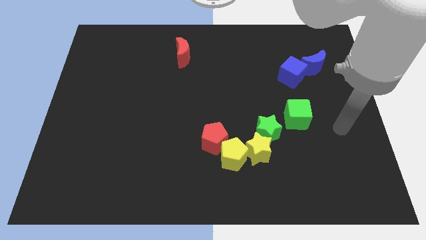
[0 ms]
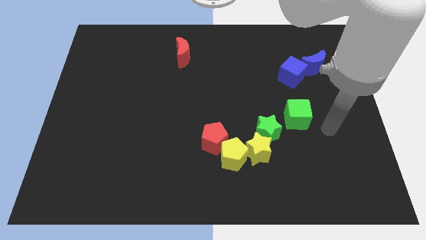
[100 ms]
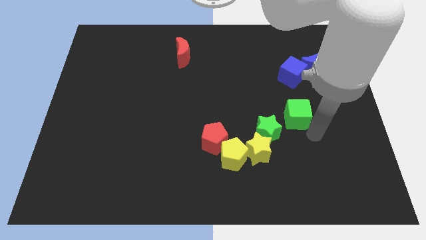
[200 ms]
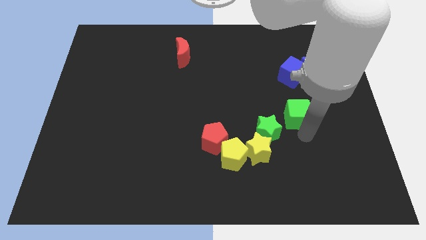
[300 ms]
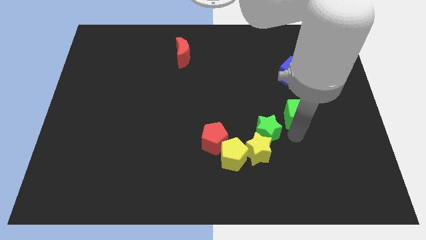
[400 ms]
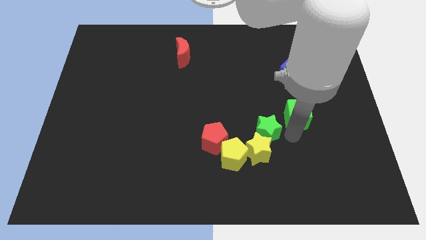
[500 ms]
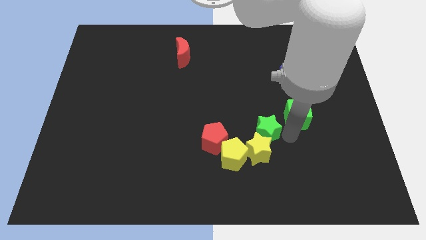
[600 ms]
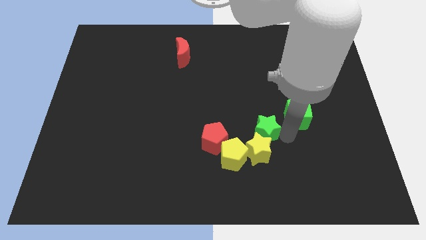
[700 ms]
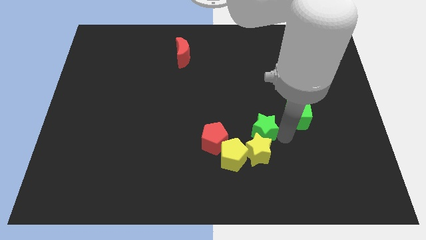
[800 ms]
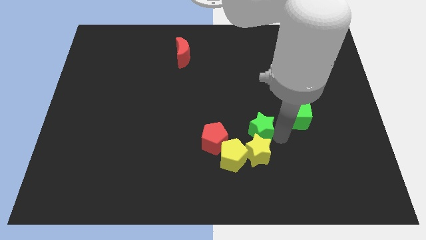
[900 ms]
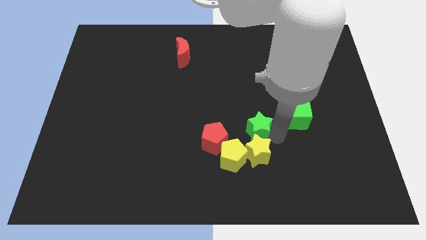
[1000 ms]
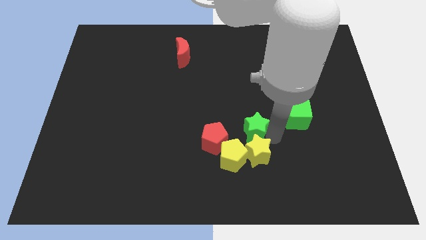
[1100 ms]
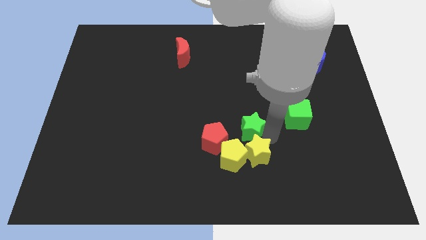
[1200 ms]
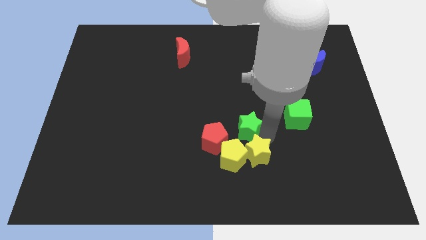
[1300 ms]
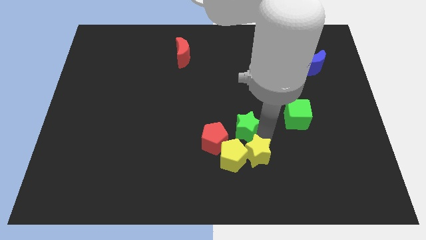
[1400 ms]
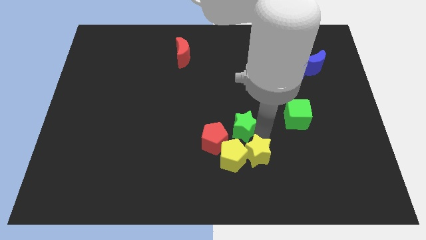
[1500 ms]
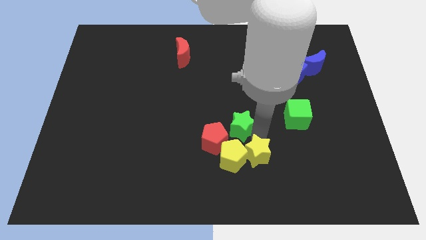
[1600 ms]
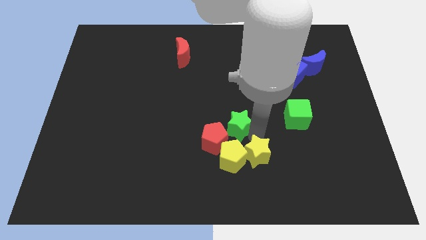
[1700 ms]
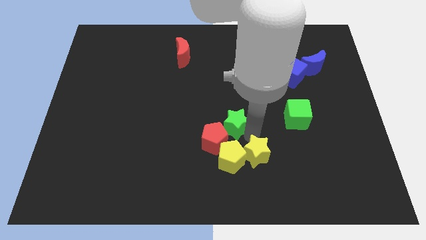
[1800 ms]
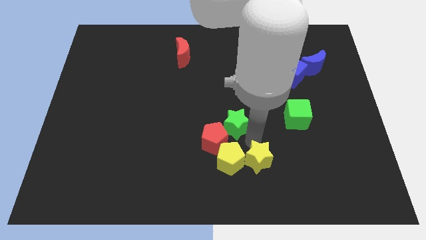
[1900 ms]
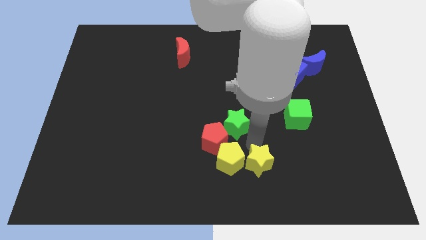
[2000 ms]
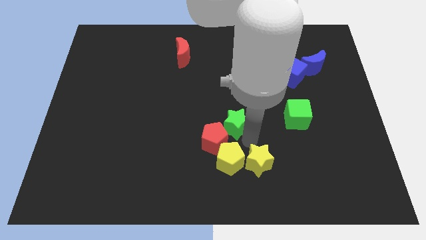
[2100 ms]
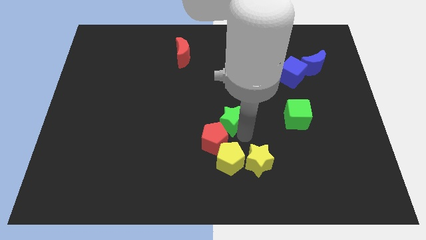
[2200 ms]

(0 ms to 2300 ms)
move the green star a little bit up and then to the left

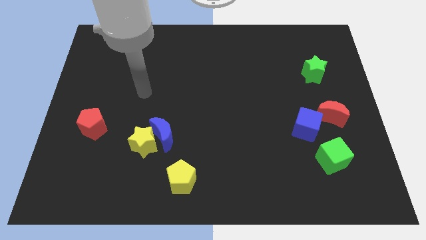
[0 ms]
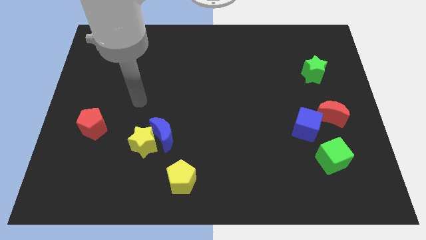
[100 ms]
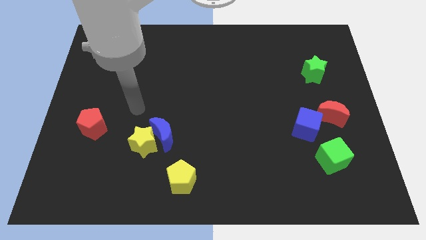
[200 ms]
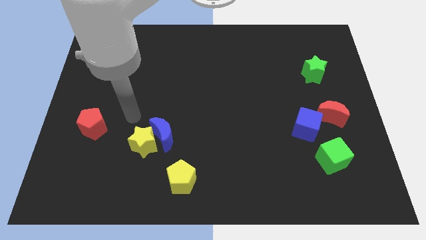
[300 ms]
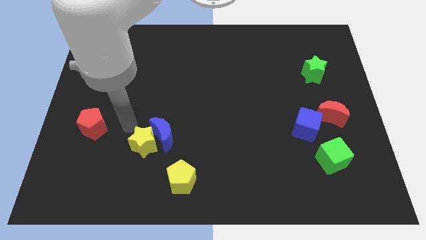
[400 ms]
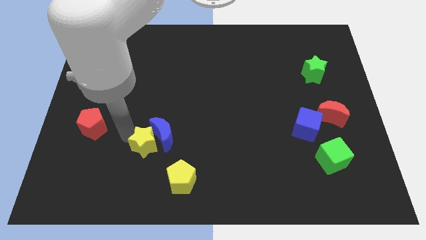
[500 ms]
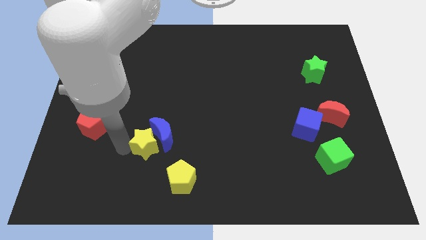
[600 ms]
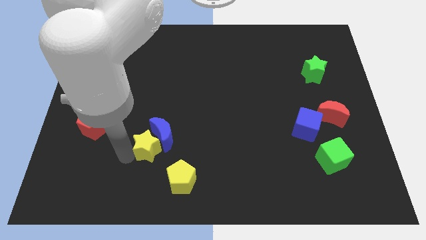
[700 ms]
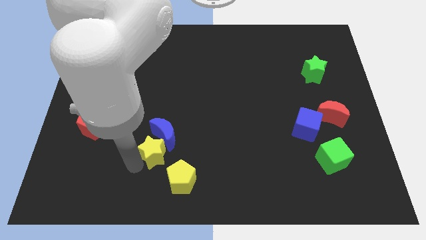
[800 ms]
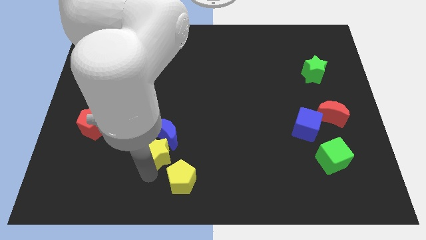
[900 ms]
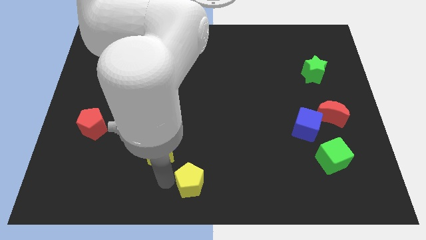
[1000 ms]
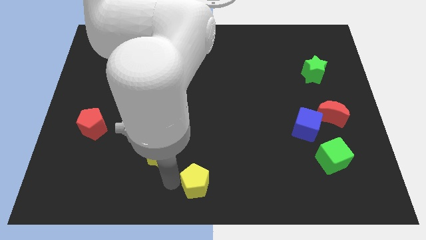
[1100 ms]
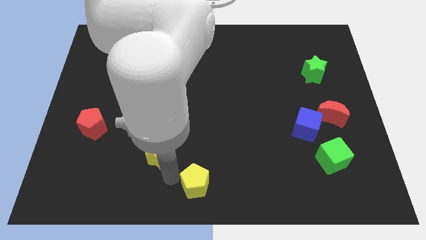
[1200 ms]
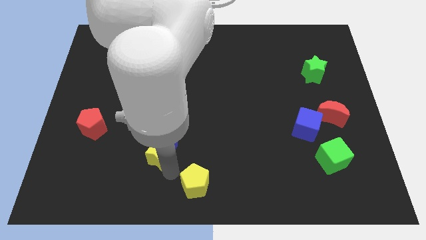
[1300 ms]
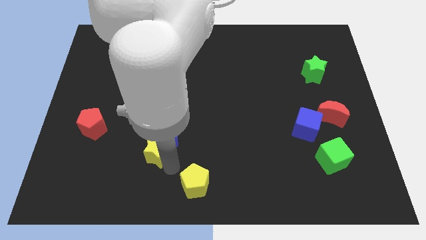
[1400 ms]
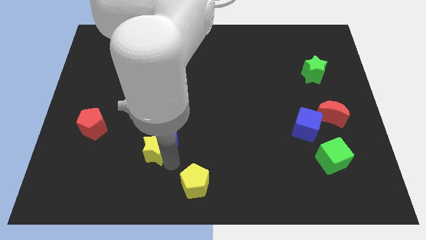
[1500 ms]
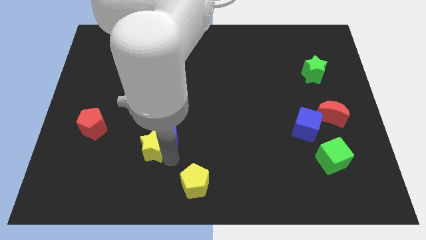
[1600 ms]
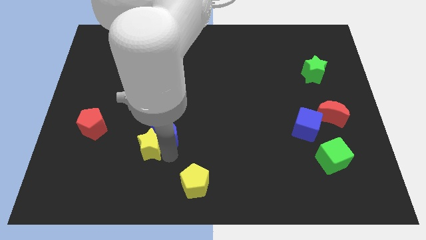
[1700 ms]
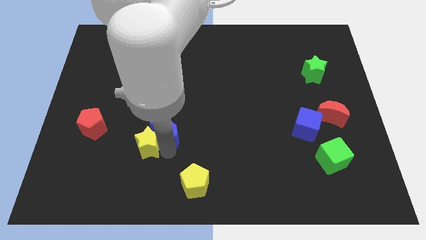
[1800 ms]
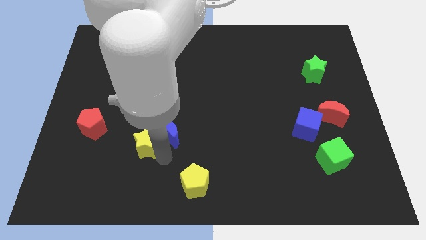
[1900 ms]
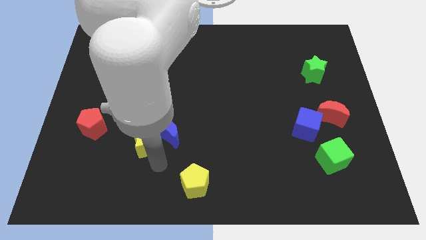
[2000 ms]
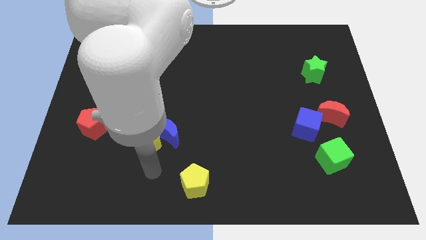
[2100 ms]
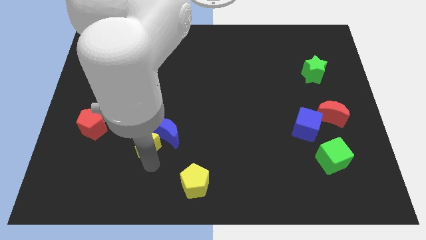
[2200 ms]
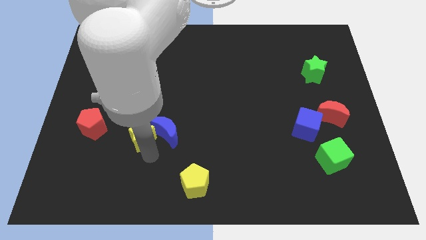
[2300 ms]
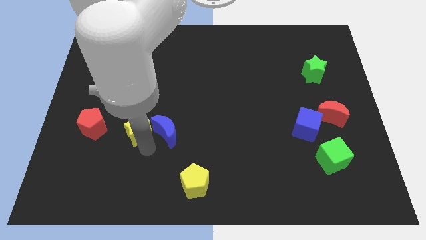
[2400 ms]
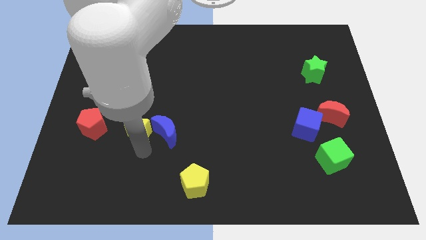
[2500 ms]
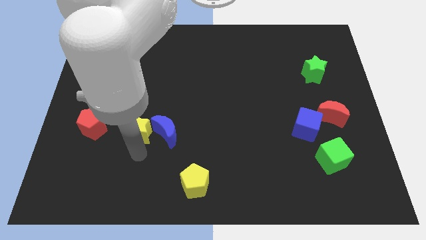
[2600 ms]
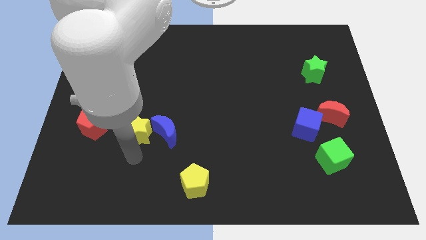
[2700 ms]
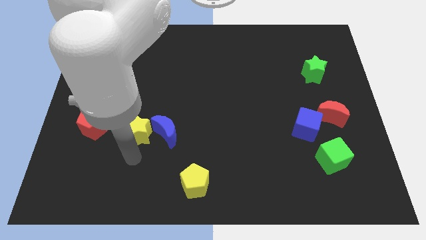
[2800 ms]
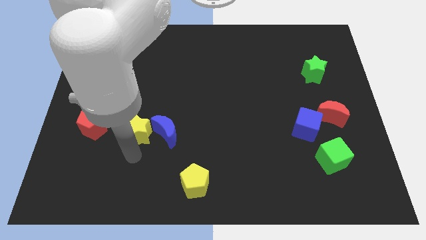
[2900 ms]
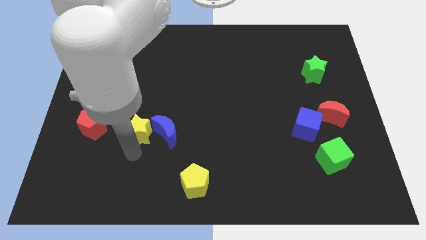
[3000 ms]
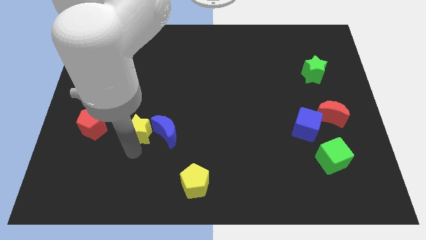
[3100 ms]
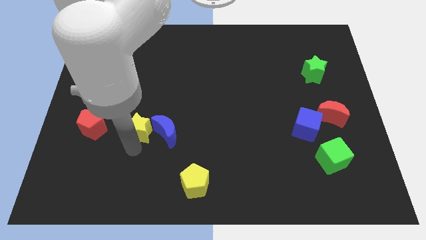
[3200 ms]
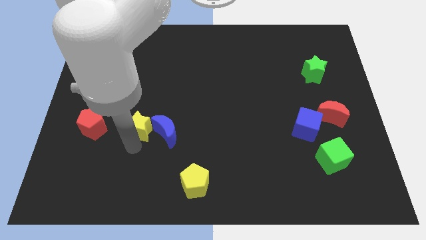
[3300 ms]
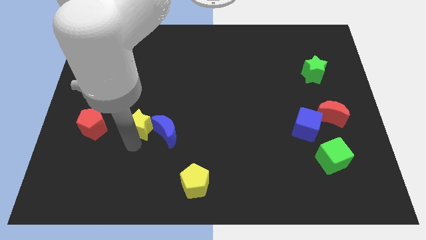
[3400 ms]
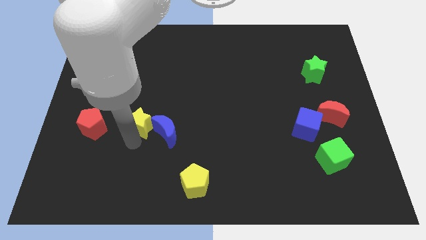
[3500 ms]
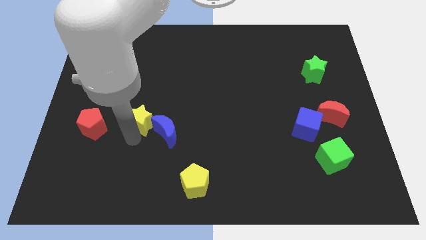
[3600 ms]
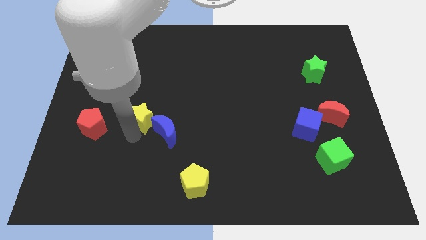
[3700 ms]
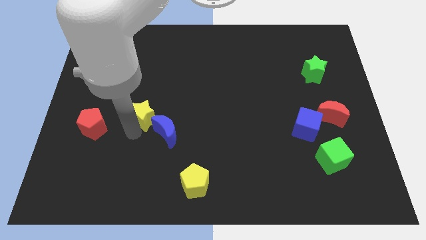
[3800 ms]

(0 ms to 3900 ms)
slightly slide the yellow star up

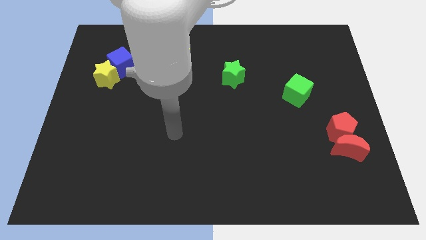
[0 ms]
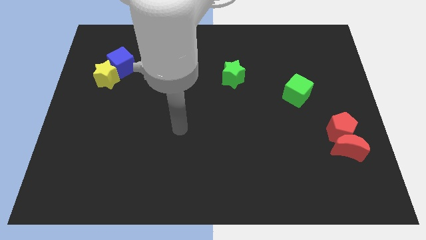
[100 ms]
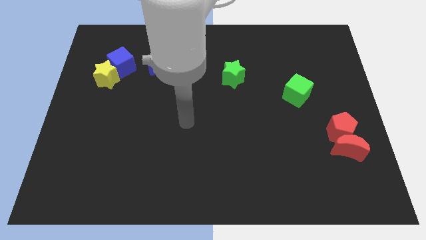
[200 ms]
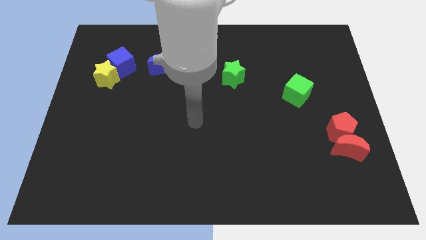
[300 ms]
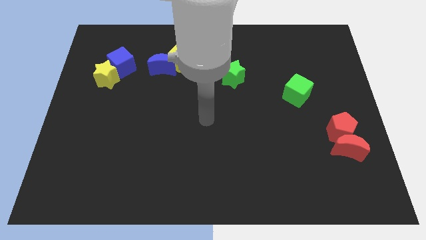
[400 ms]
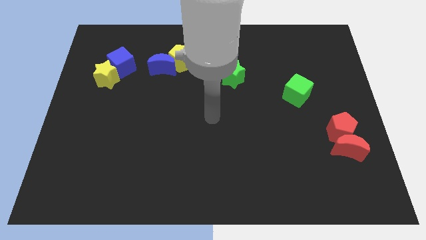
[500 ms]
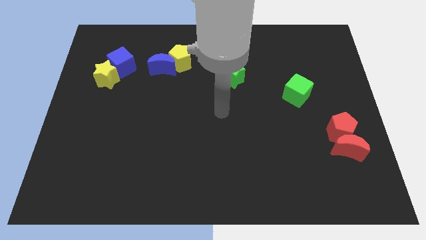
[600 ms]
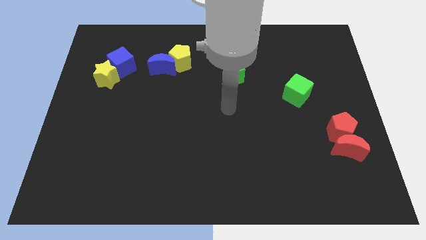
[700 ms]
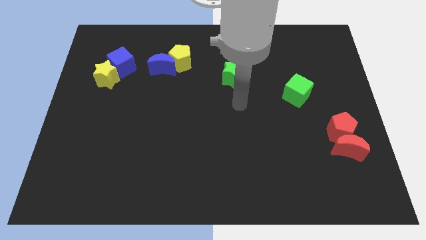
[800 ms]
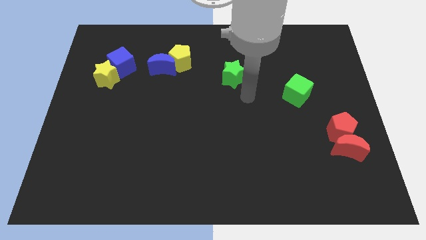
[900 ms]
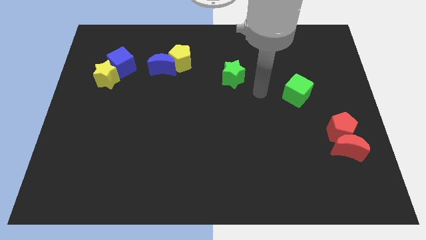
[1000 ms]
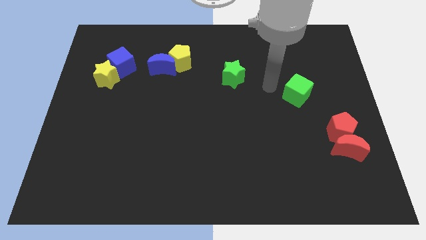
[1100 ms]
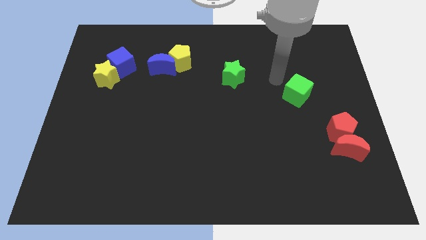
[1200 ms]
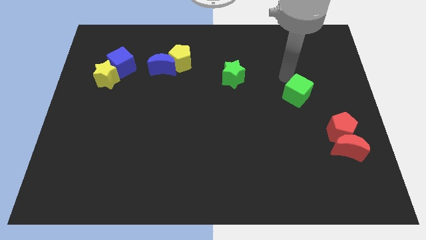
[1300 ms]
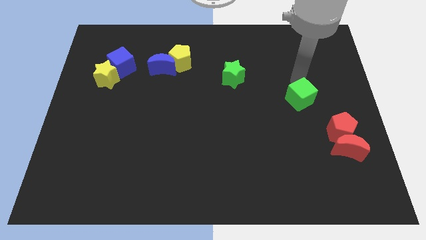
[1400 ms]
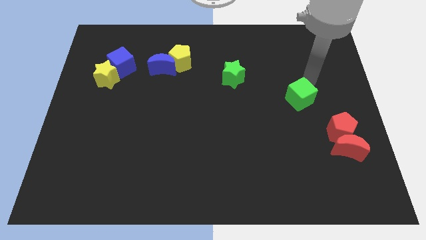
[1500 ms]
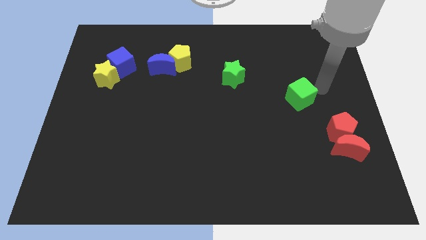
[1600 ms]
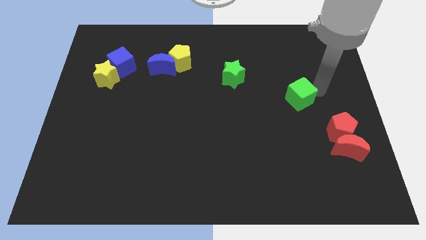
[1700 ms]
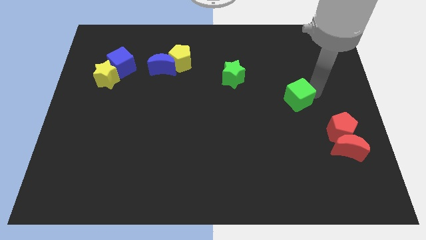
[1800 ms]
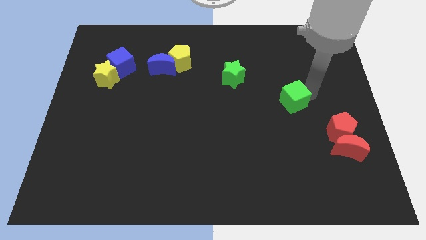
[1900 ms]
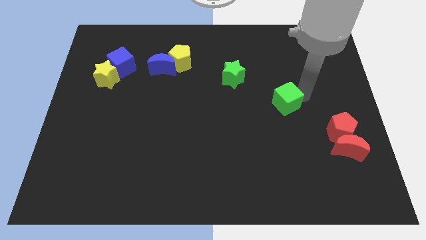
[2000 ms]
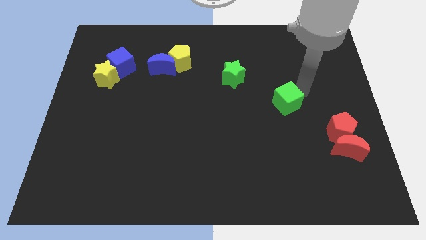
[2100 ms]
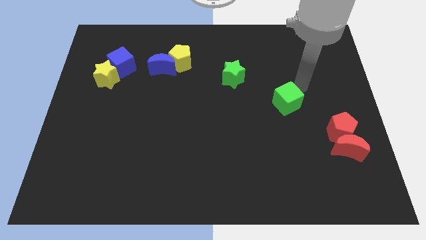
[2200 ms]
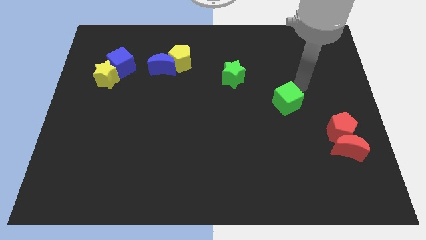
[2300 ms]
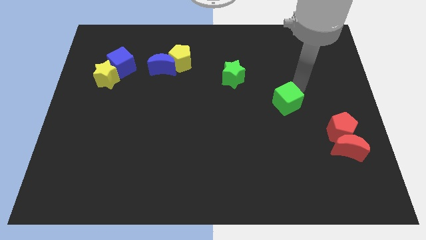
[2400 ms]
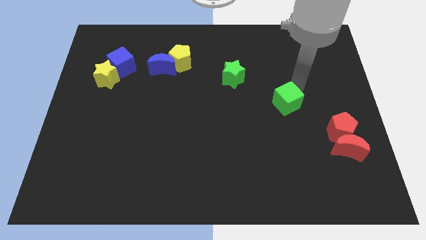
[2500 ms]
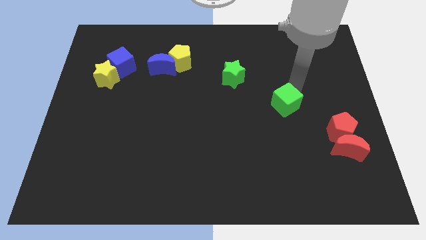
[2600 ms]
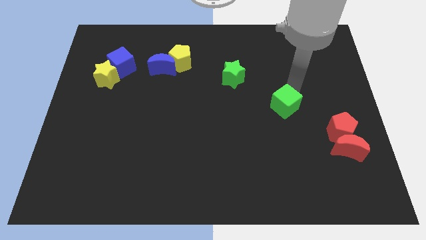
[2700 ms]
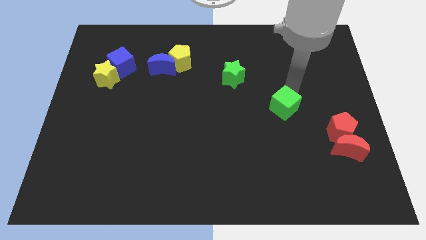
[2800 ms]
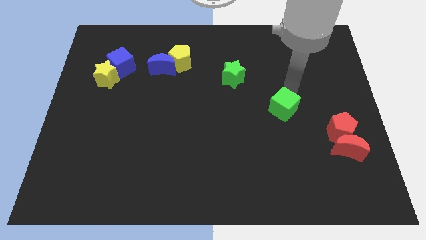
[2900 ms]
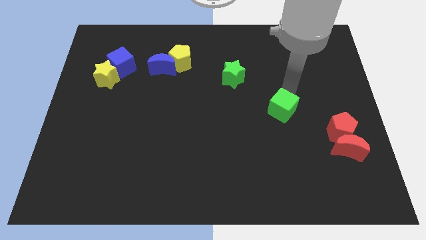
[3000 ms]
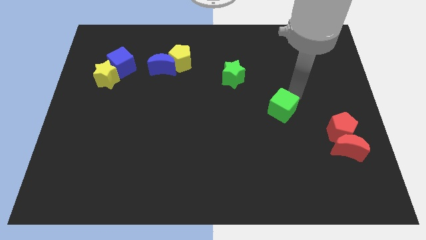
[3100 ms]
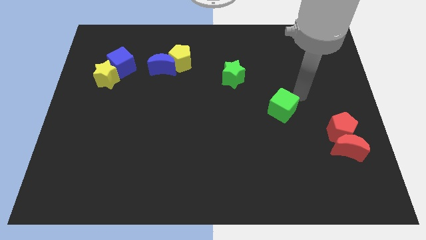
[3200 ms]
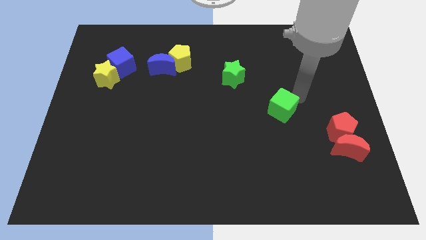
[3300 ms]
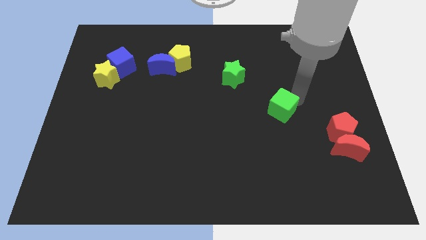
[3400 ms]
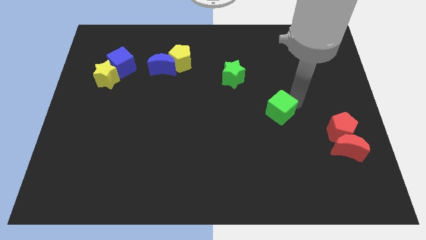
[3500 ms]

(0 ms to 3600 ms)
push the green cube slightly downwards and then to the left
